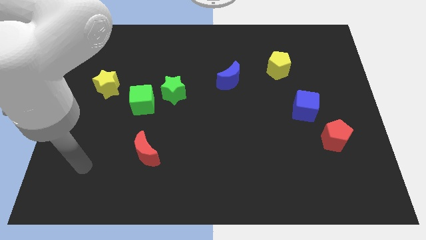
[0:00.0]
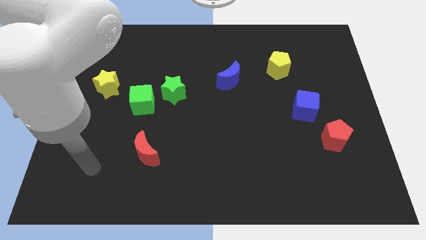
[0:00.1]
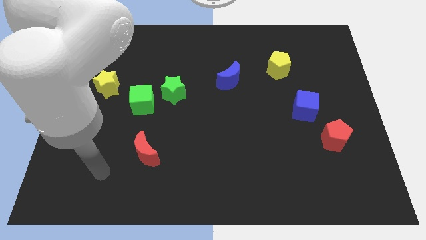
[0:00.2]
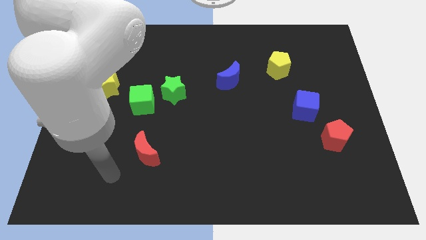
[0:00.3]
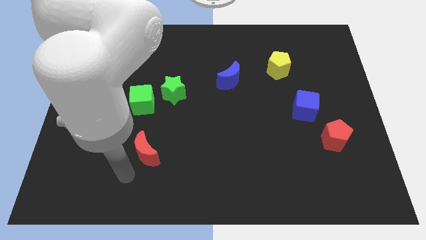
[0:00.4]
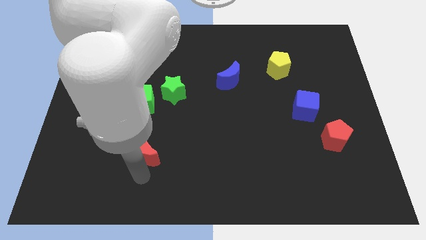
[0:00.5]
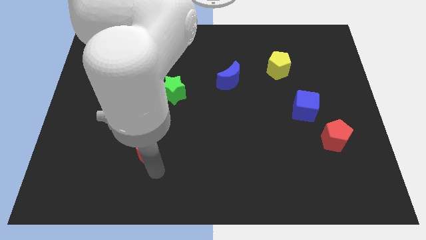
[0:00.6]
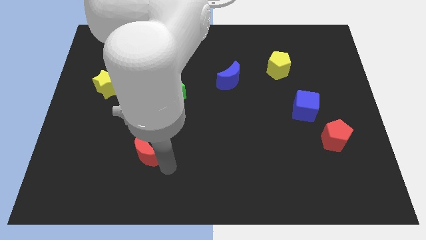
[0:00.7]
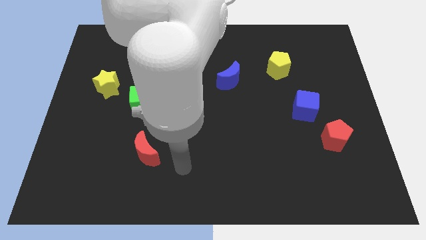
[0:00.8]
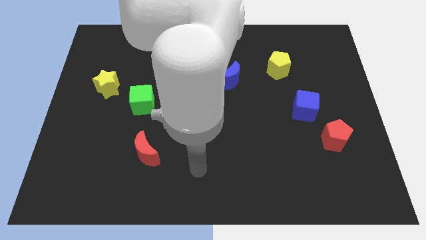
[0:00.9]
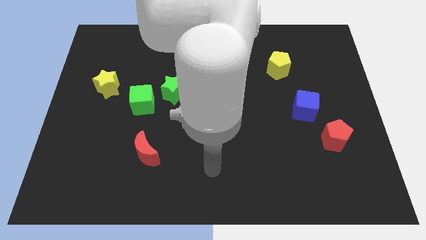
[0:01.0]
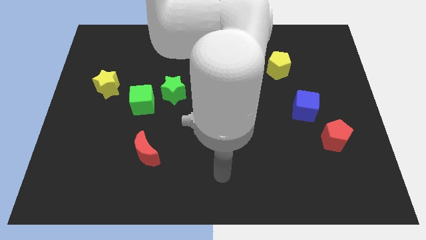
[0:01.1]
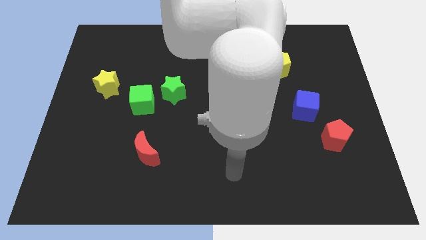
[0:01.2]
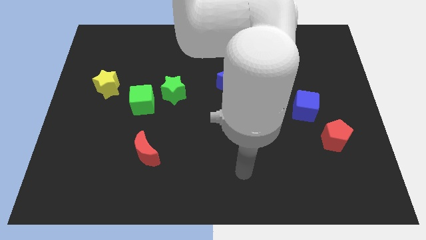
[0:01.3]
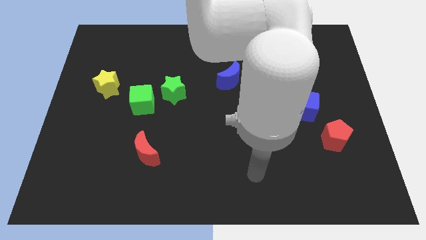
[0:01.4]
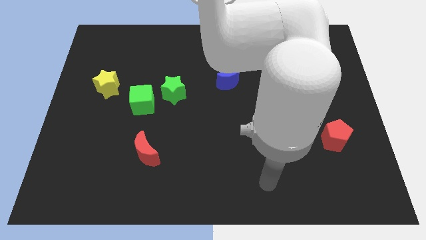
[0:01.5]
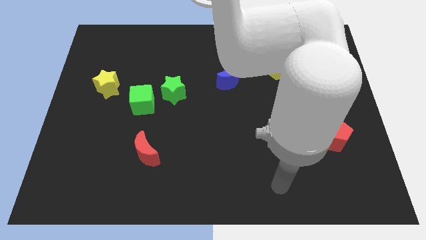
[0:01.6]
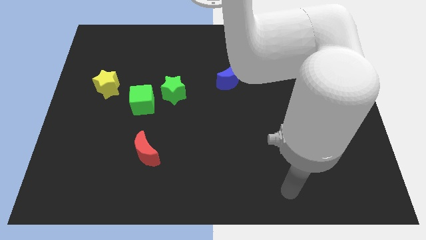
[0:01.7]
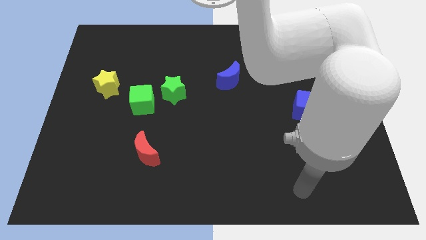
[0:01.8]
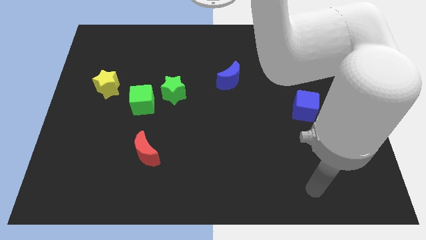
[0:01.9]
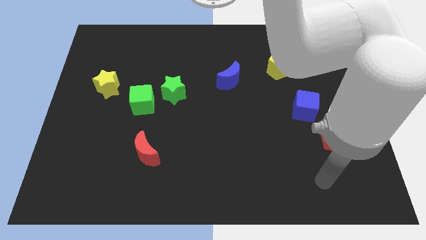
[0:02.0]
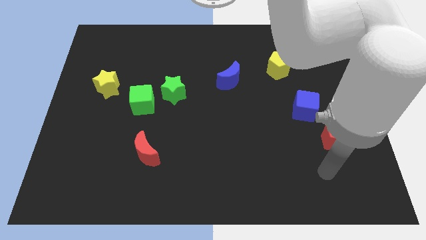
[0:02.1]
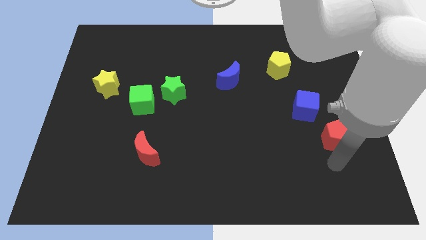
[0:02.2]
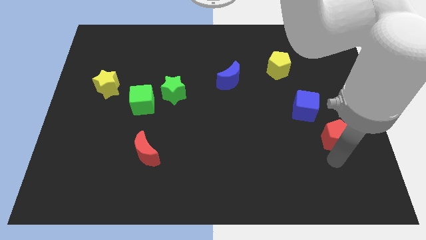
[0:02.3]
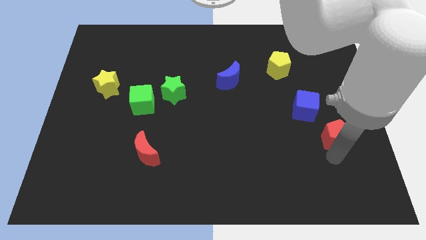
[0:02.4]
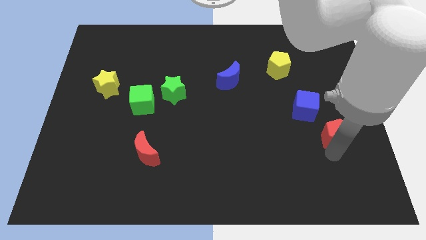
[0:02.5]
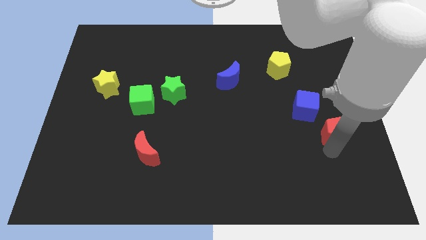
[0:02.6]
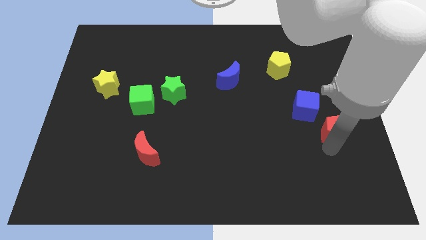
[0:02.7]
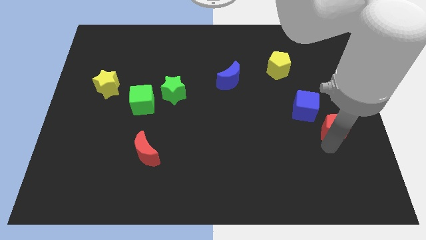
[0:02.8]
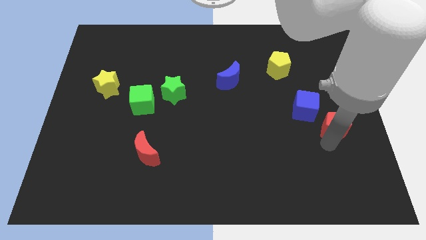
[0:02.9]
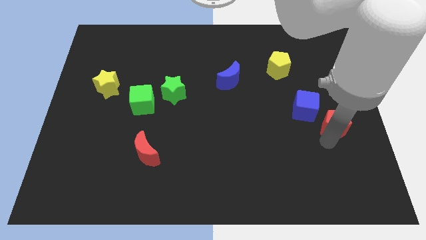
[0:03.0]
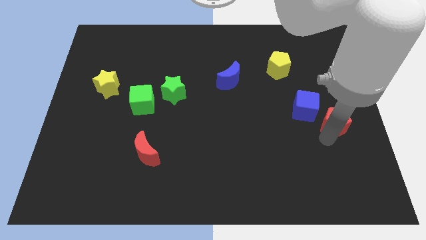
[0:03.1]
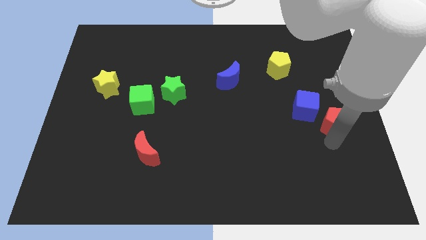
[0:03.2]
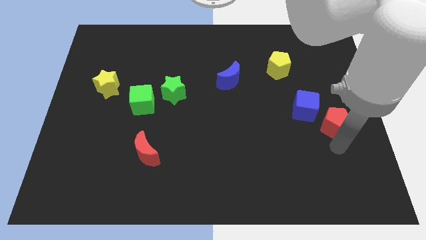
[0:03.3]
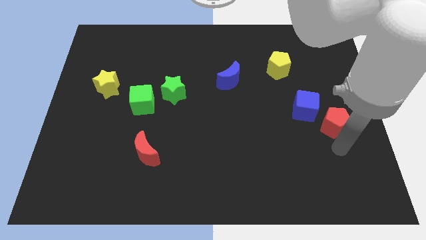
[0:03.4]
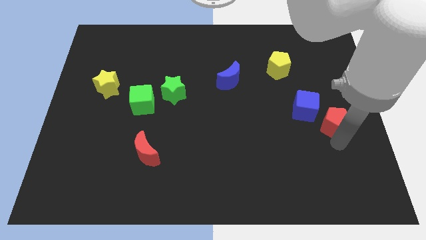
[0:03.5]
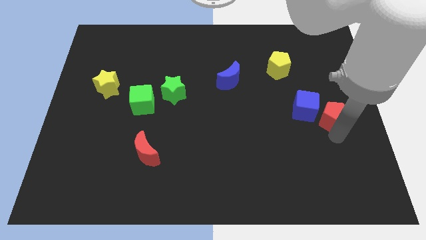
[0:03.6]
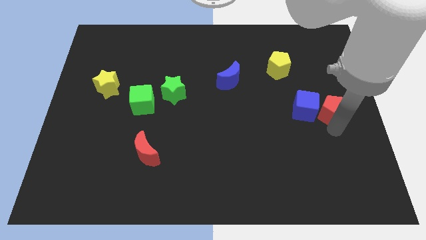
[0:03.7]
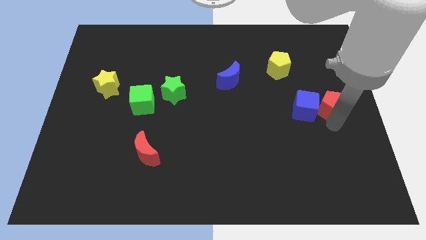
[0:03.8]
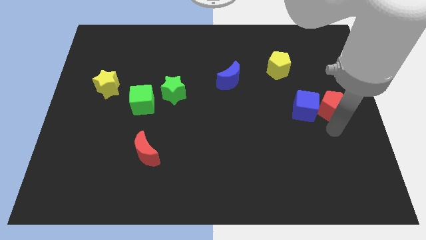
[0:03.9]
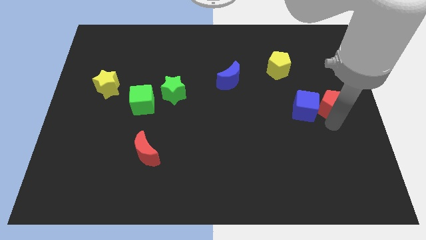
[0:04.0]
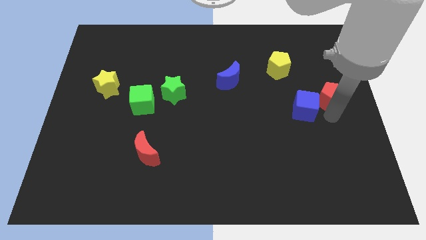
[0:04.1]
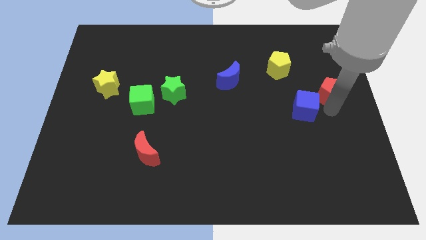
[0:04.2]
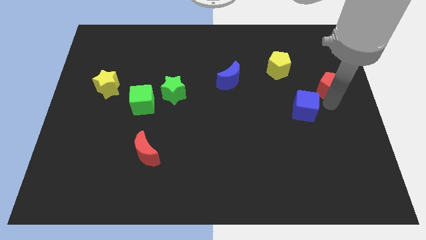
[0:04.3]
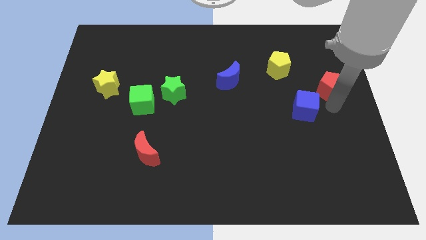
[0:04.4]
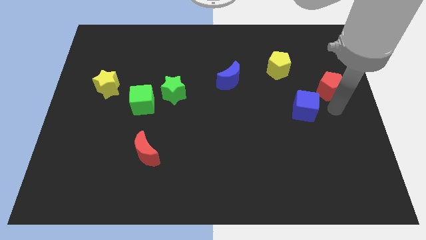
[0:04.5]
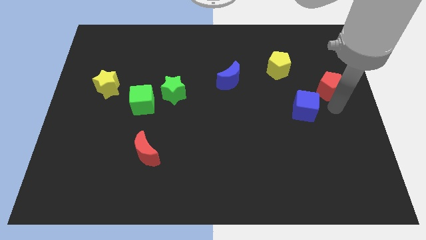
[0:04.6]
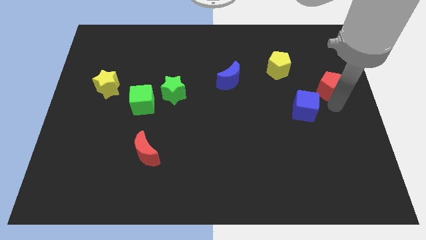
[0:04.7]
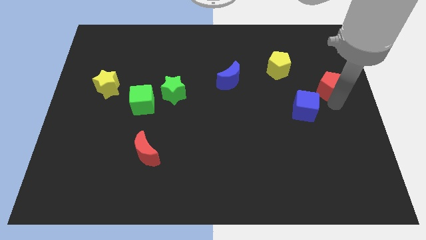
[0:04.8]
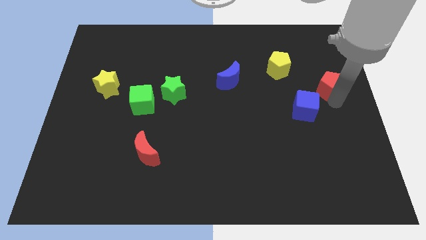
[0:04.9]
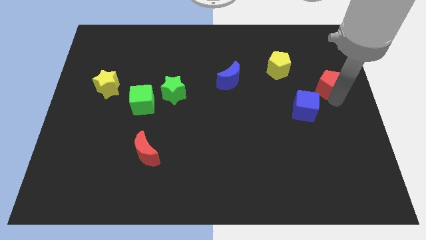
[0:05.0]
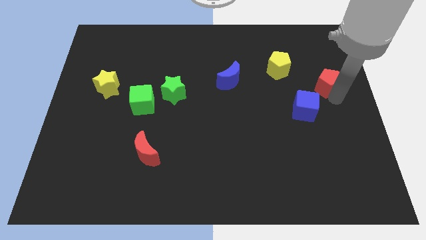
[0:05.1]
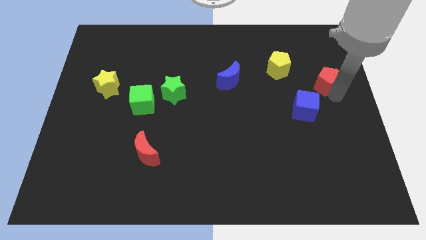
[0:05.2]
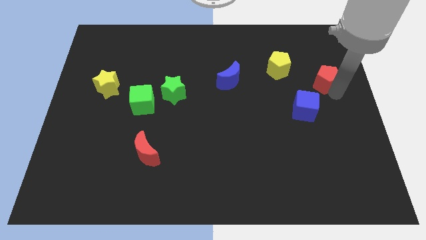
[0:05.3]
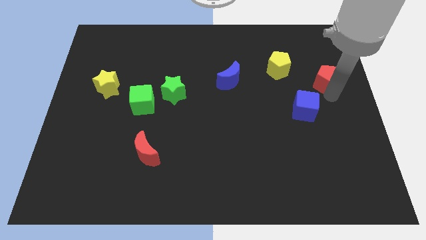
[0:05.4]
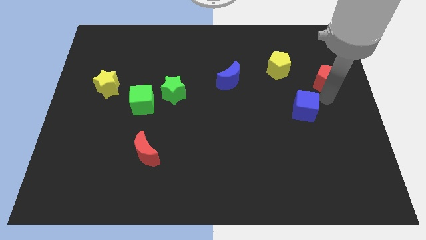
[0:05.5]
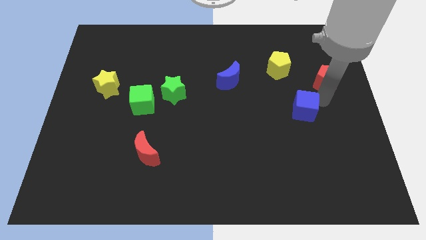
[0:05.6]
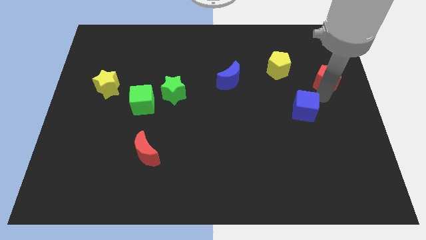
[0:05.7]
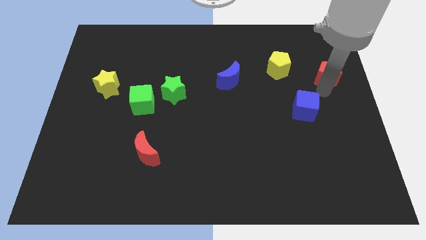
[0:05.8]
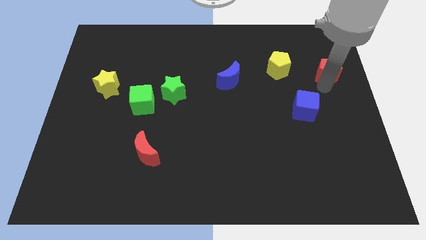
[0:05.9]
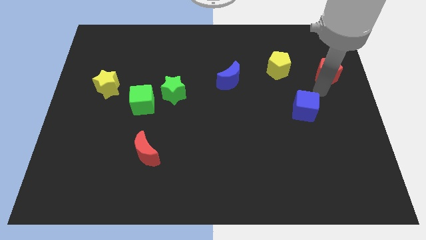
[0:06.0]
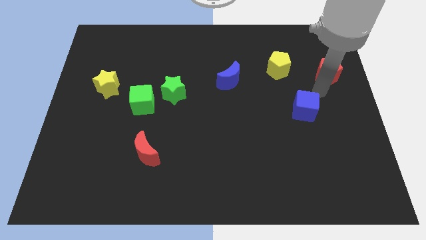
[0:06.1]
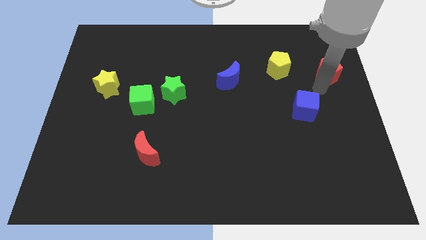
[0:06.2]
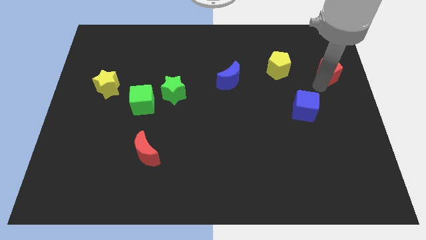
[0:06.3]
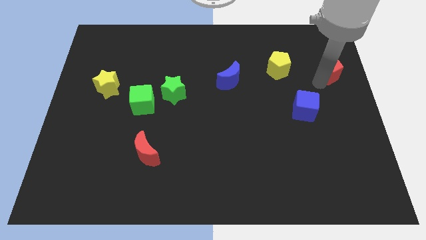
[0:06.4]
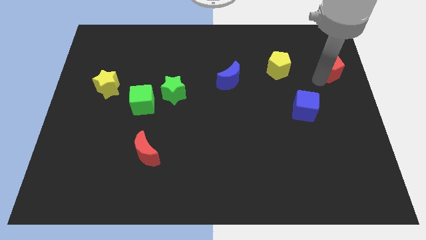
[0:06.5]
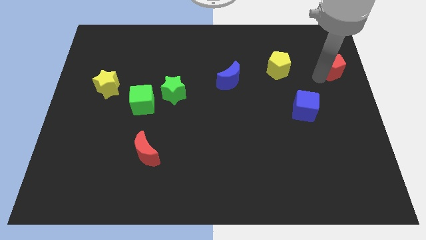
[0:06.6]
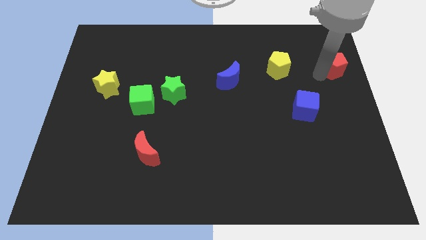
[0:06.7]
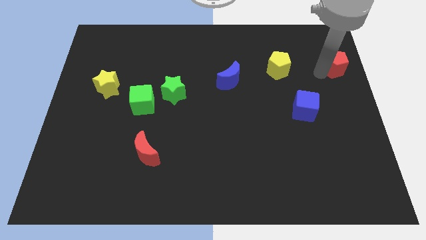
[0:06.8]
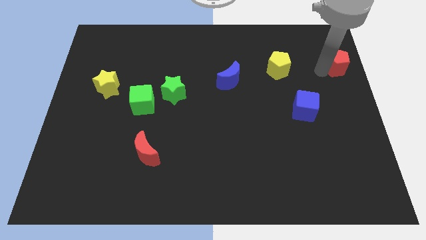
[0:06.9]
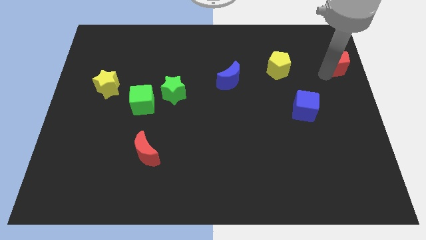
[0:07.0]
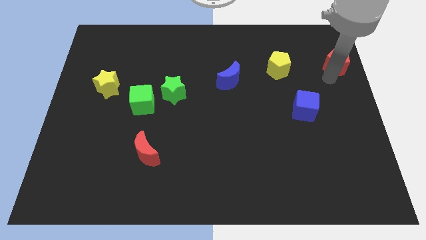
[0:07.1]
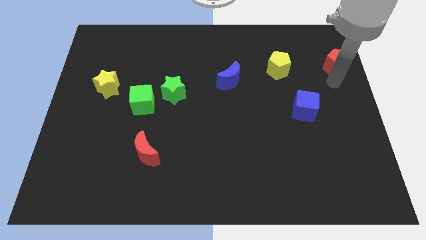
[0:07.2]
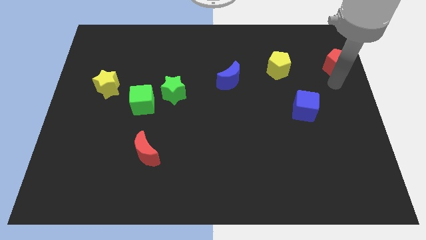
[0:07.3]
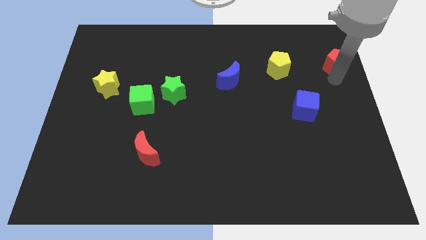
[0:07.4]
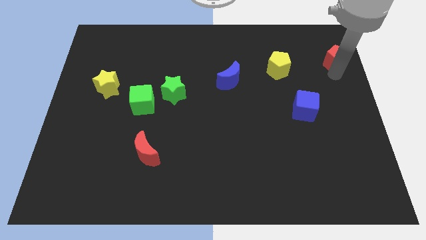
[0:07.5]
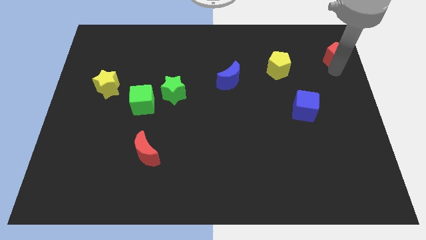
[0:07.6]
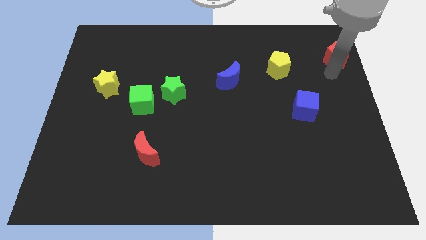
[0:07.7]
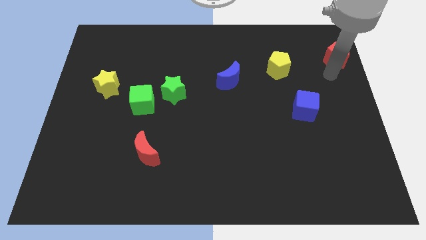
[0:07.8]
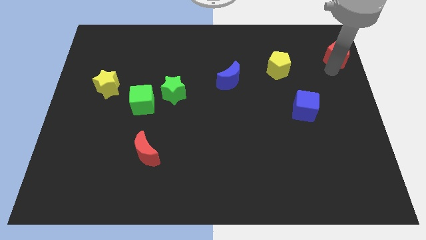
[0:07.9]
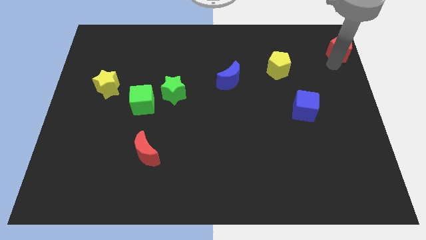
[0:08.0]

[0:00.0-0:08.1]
push the red pentagon to the top right corner
